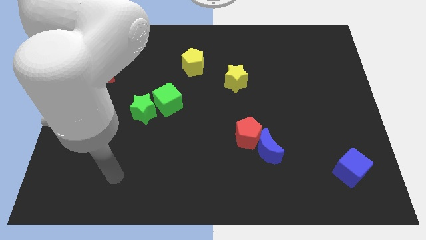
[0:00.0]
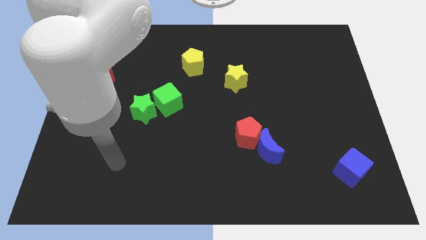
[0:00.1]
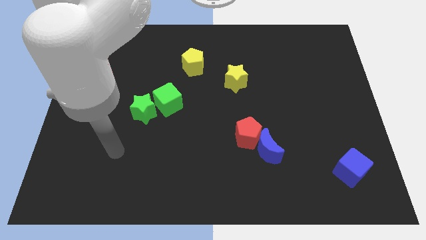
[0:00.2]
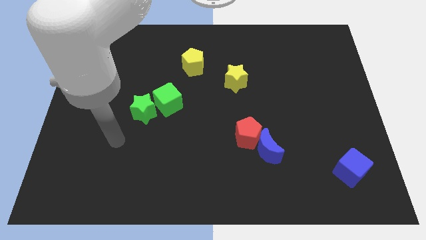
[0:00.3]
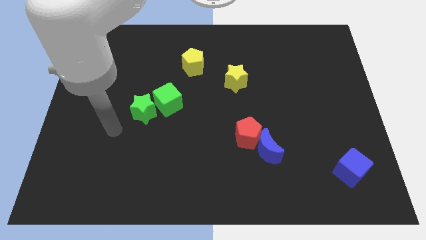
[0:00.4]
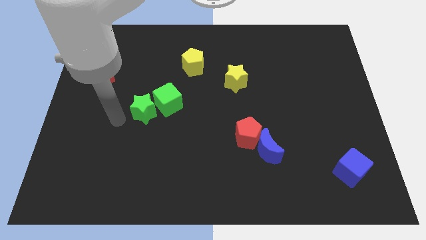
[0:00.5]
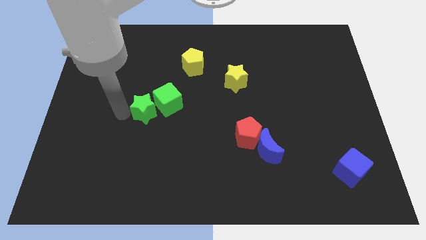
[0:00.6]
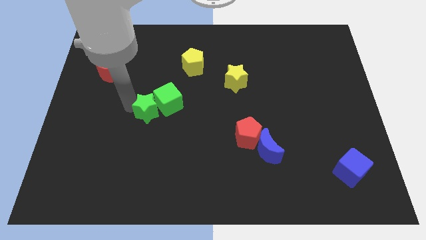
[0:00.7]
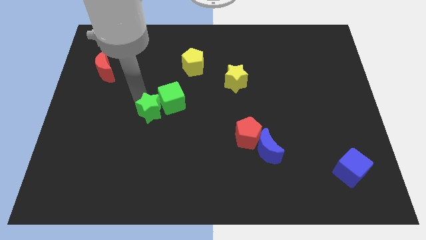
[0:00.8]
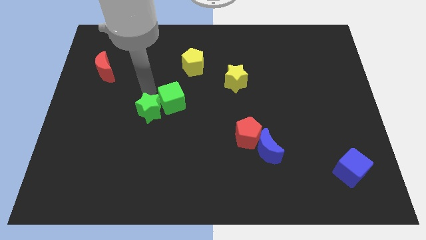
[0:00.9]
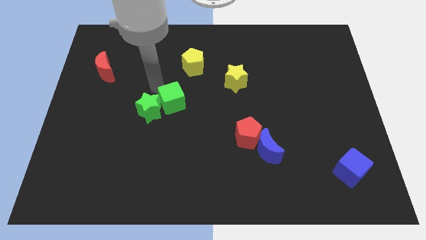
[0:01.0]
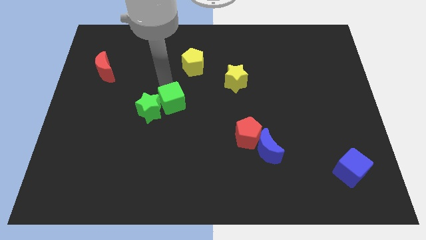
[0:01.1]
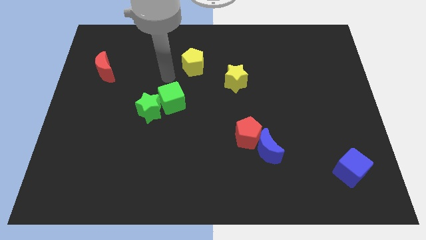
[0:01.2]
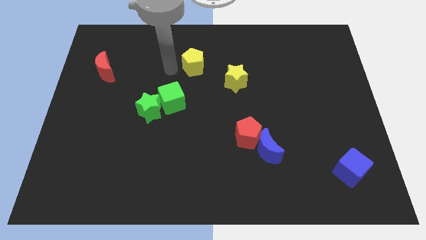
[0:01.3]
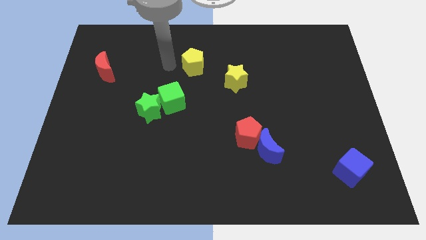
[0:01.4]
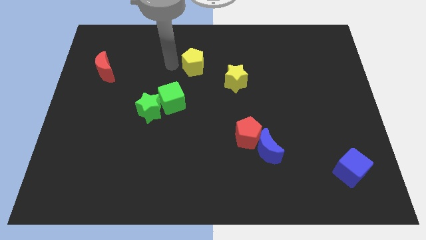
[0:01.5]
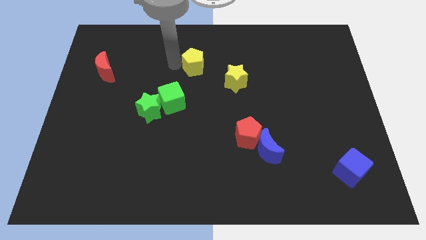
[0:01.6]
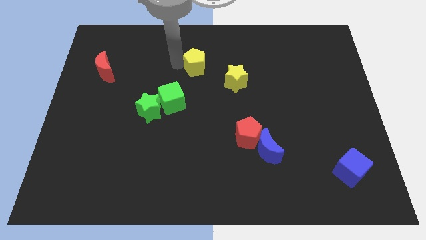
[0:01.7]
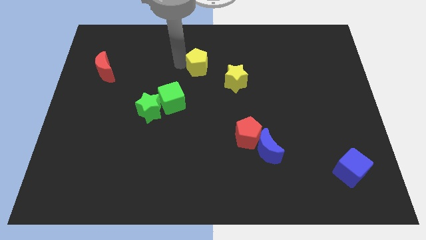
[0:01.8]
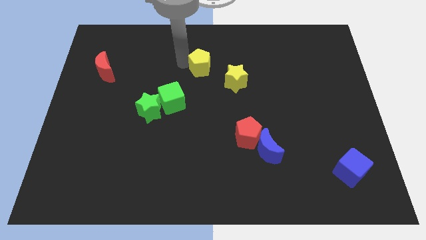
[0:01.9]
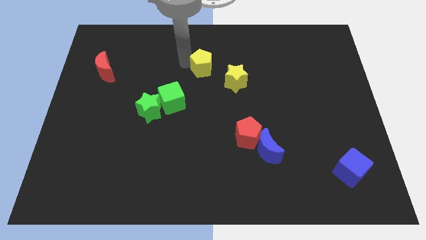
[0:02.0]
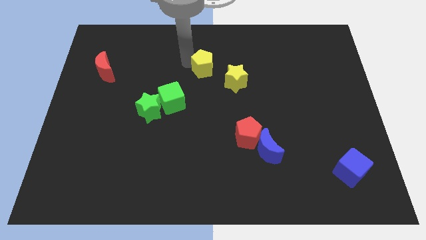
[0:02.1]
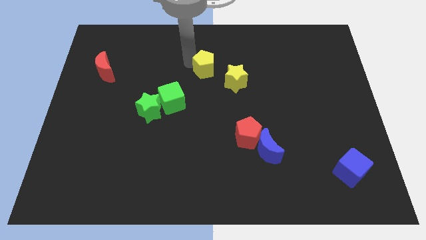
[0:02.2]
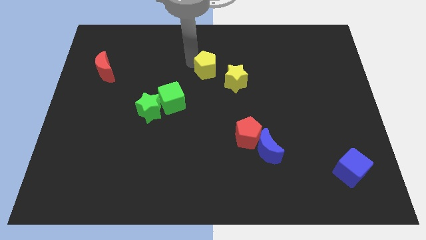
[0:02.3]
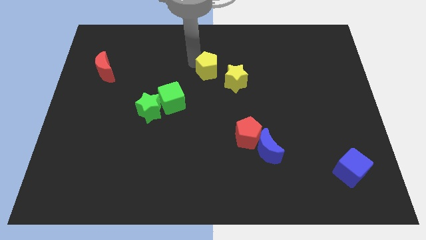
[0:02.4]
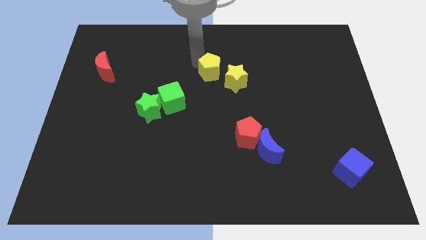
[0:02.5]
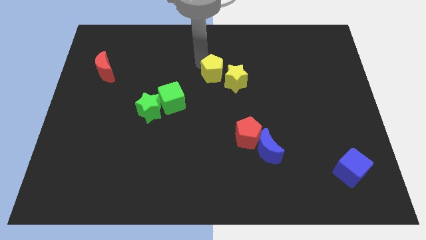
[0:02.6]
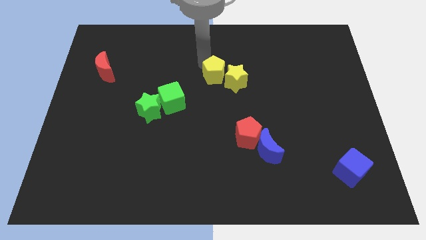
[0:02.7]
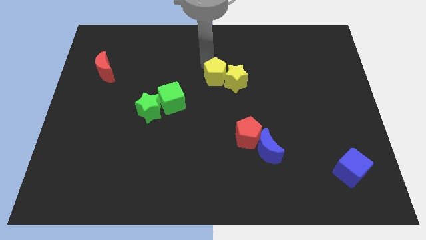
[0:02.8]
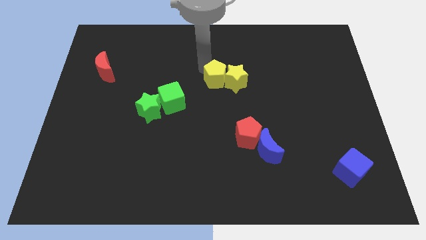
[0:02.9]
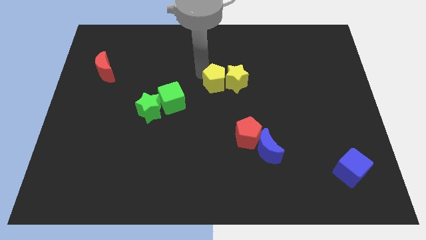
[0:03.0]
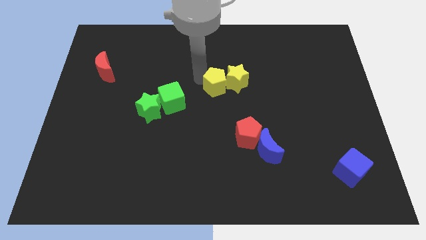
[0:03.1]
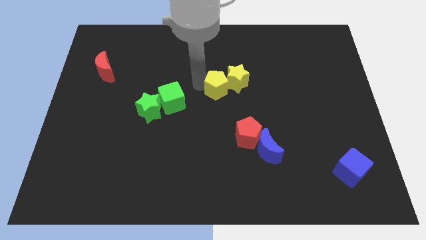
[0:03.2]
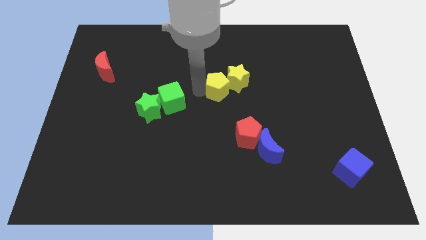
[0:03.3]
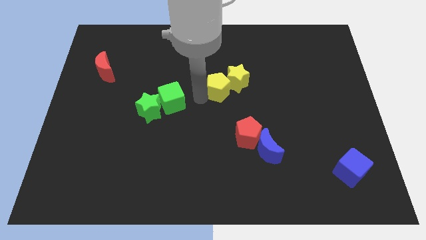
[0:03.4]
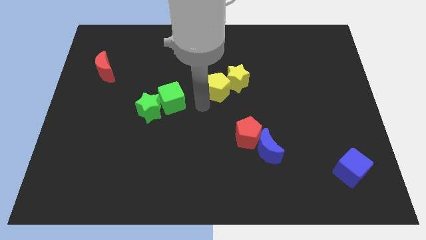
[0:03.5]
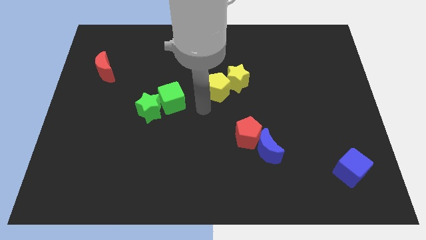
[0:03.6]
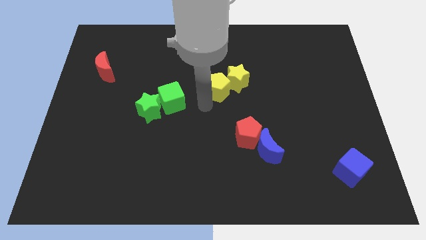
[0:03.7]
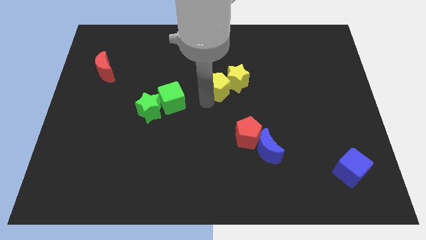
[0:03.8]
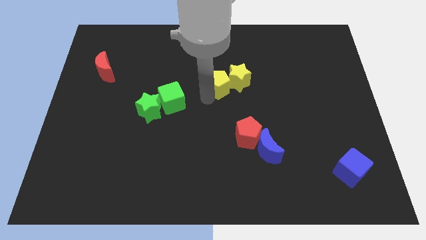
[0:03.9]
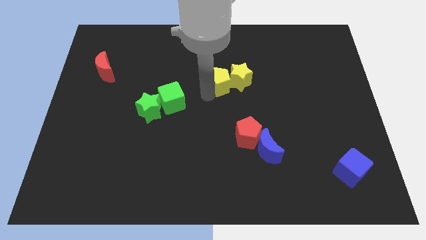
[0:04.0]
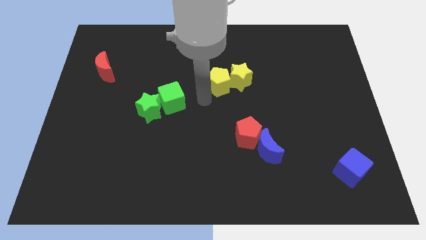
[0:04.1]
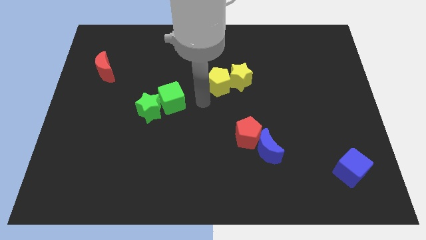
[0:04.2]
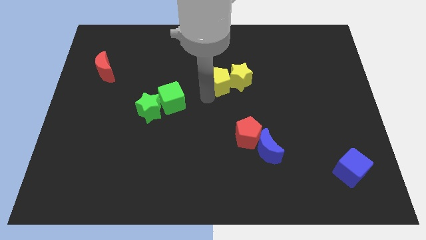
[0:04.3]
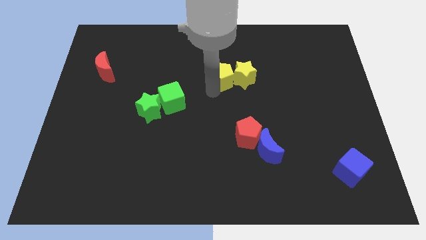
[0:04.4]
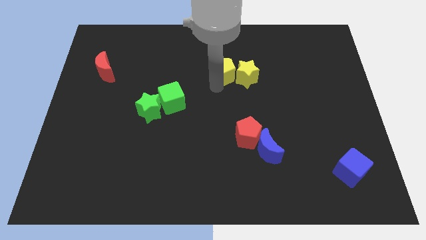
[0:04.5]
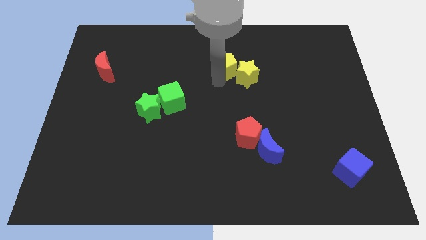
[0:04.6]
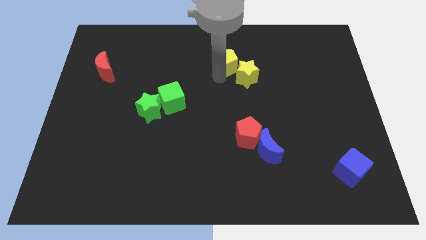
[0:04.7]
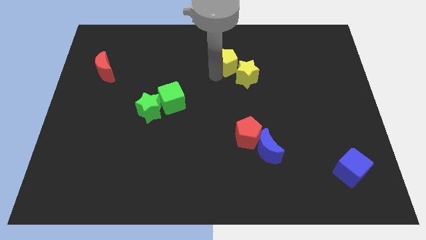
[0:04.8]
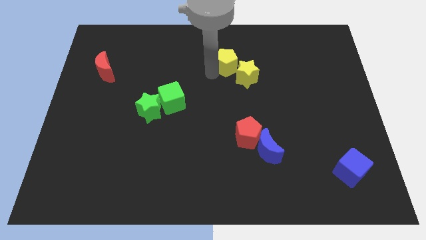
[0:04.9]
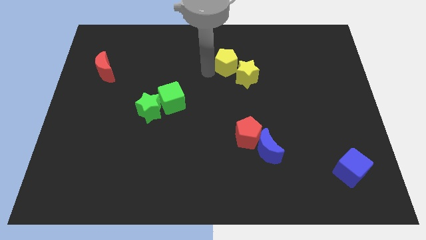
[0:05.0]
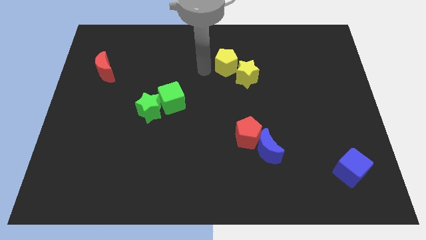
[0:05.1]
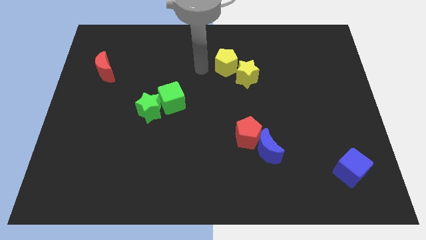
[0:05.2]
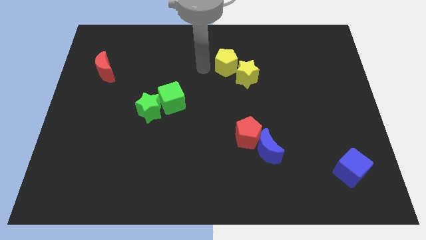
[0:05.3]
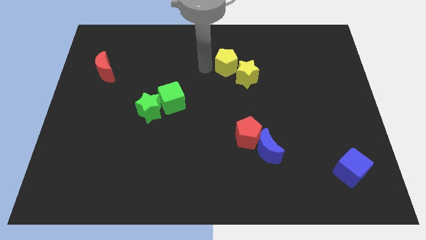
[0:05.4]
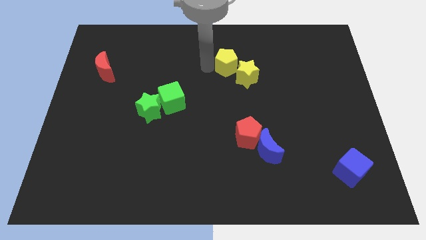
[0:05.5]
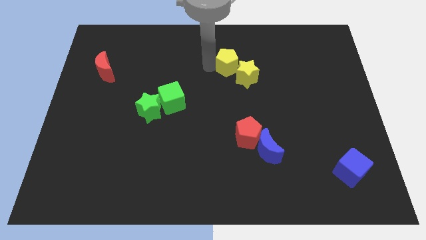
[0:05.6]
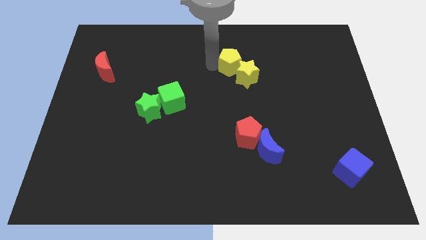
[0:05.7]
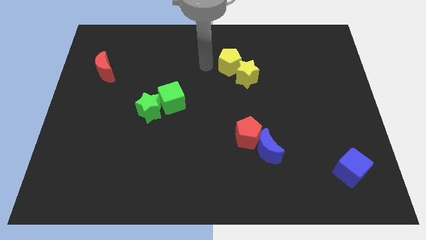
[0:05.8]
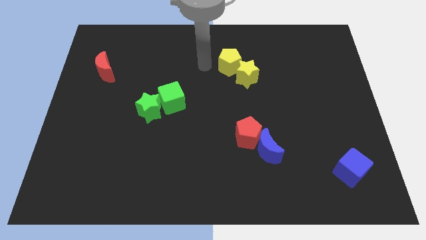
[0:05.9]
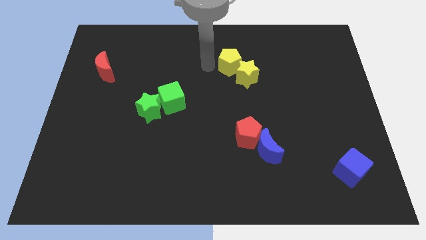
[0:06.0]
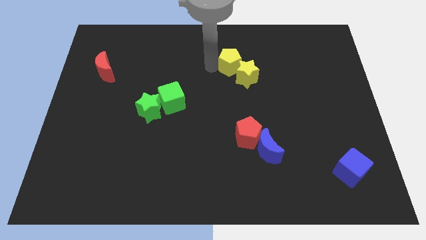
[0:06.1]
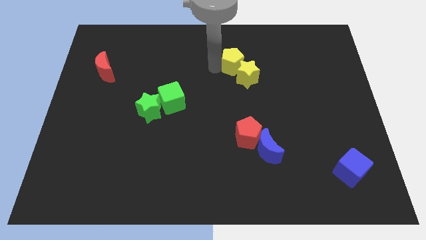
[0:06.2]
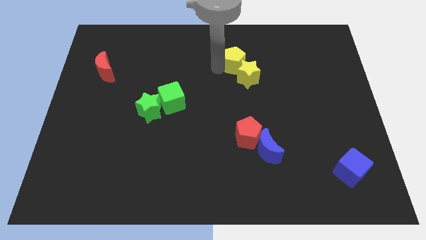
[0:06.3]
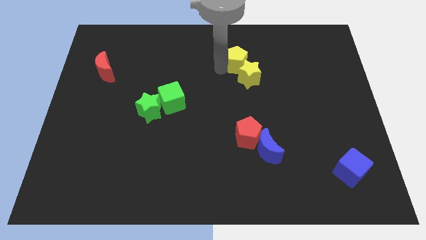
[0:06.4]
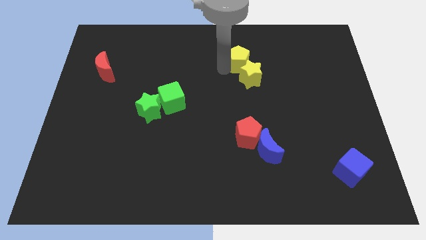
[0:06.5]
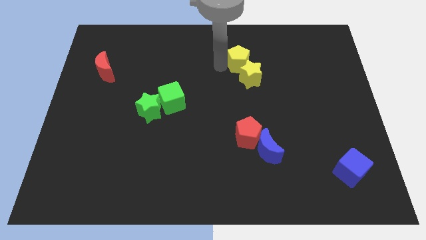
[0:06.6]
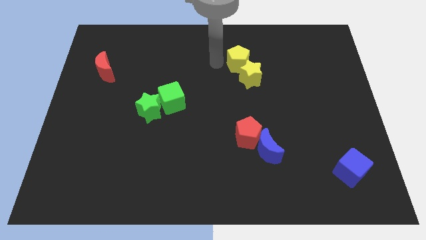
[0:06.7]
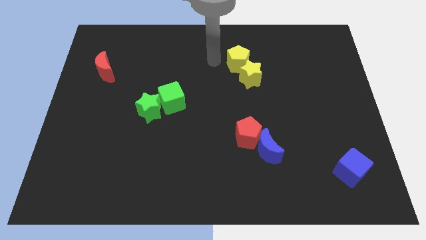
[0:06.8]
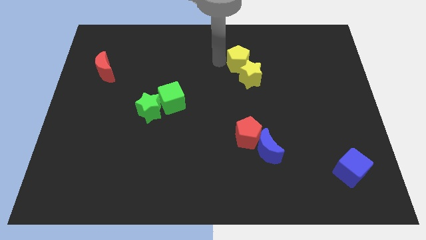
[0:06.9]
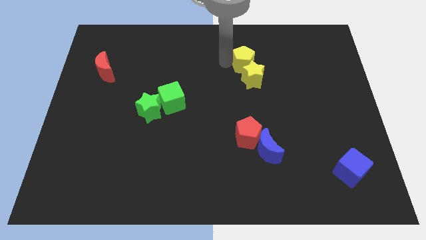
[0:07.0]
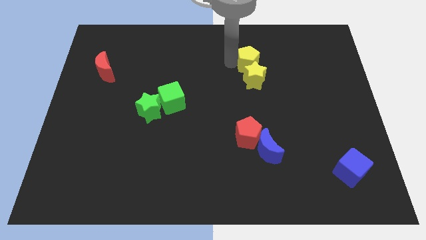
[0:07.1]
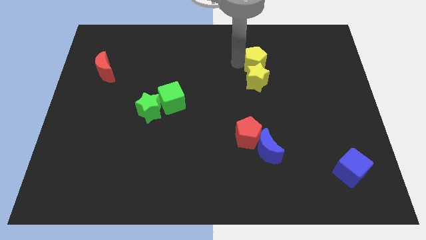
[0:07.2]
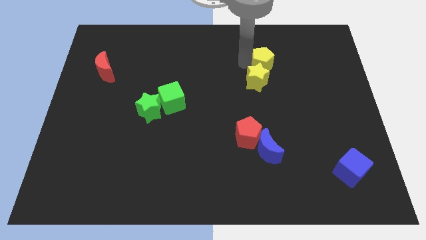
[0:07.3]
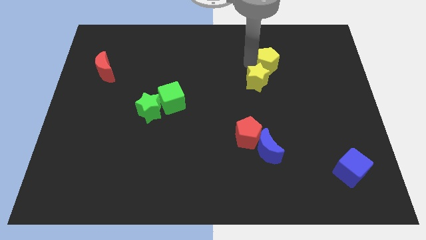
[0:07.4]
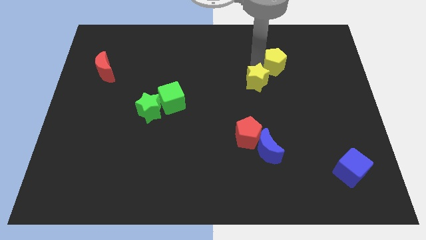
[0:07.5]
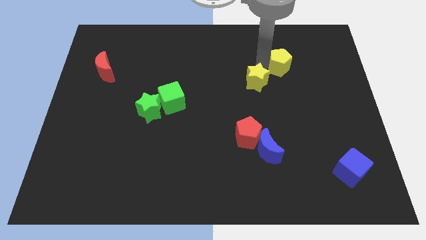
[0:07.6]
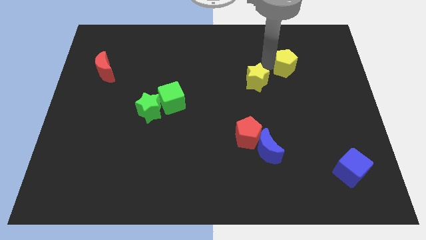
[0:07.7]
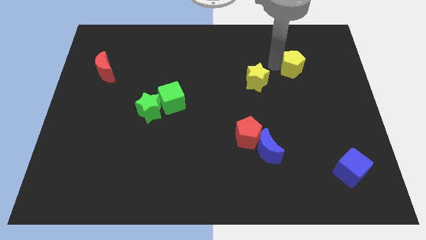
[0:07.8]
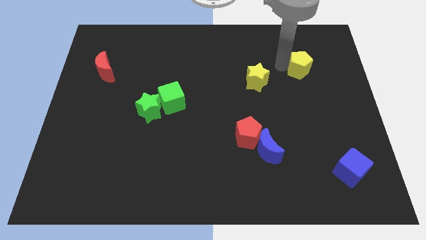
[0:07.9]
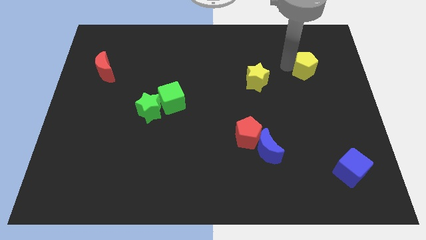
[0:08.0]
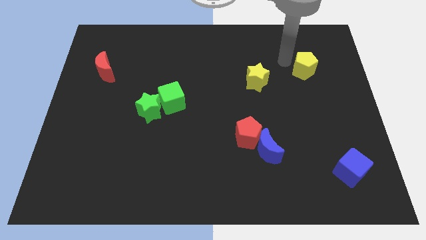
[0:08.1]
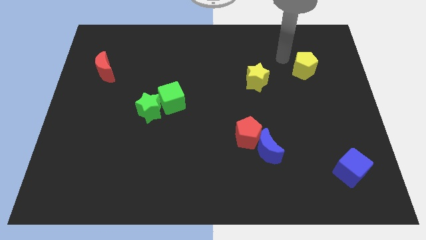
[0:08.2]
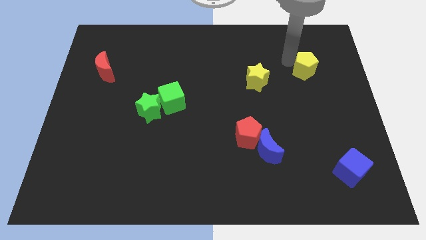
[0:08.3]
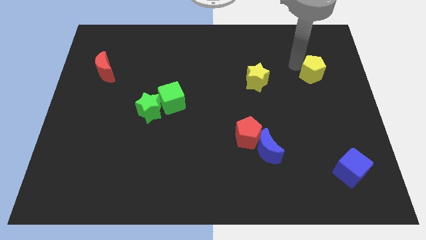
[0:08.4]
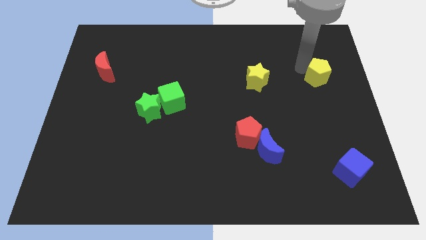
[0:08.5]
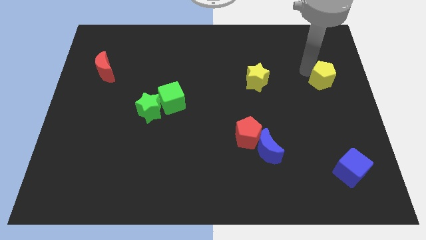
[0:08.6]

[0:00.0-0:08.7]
push the yellow pentagon to the center right
